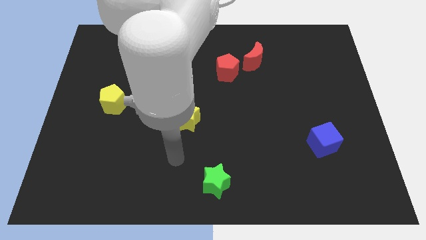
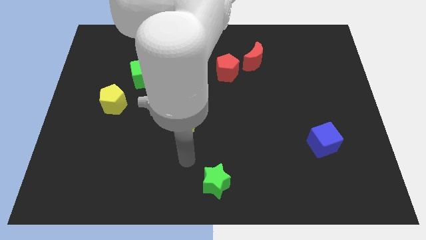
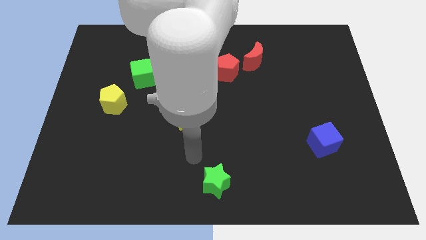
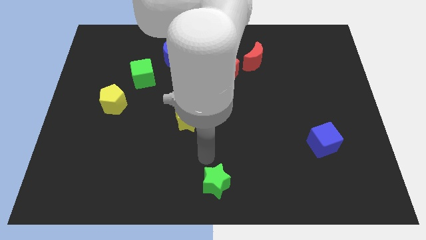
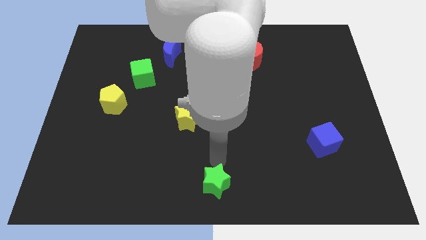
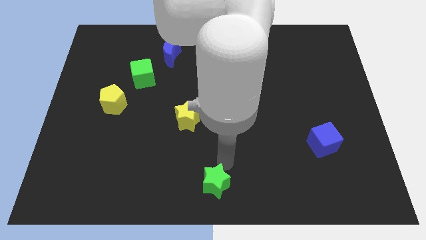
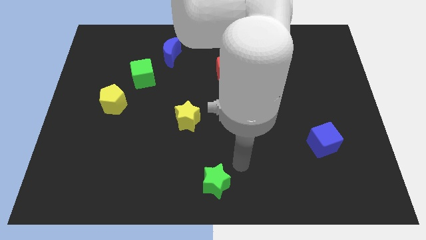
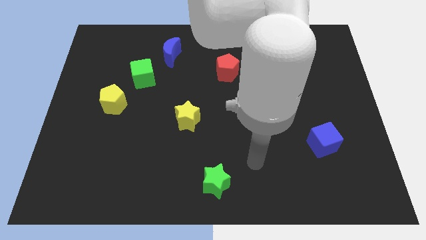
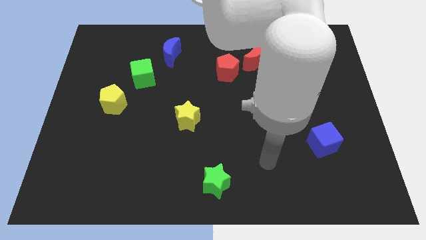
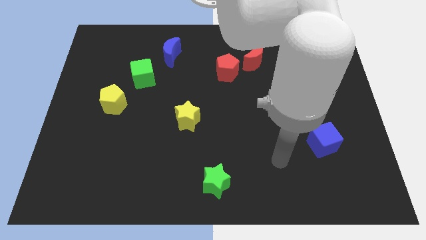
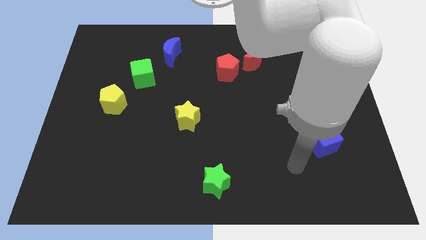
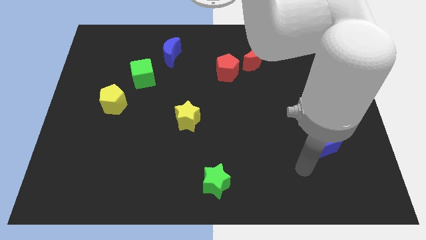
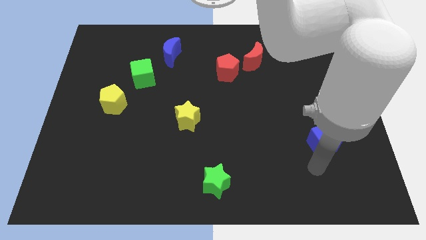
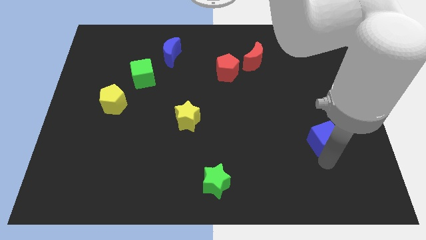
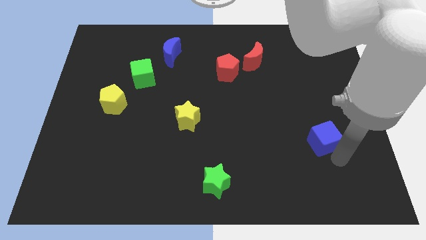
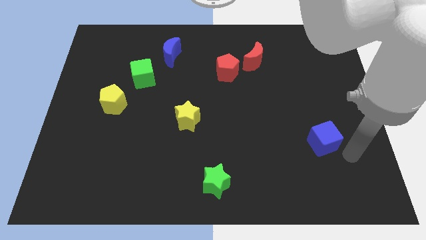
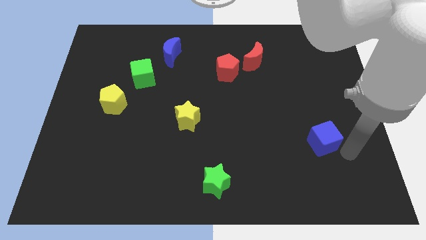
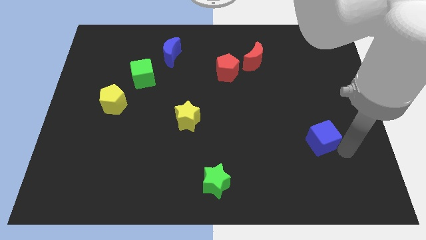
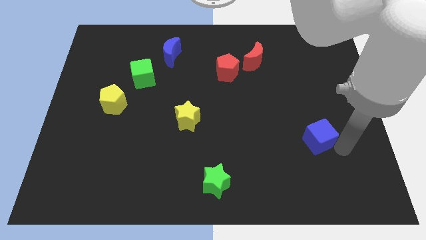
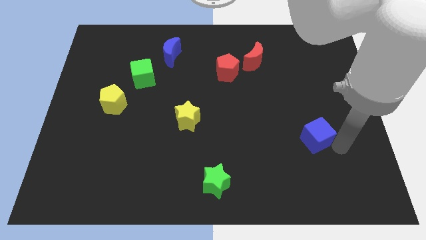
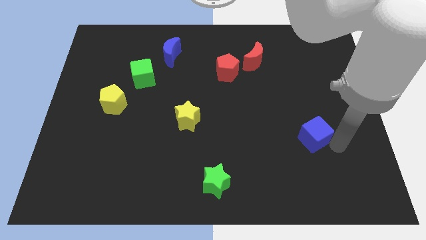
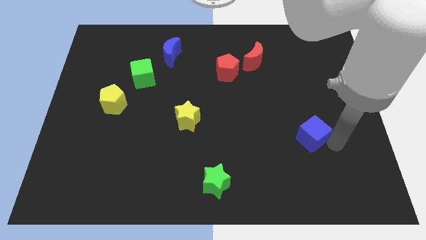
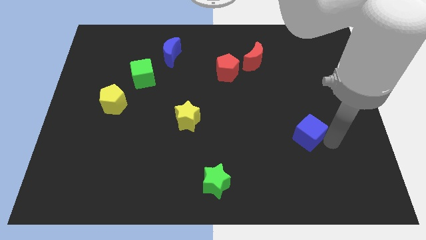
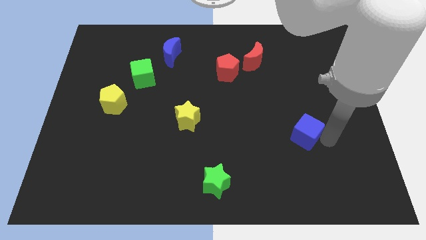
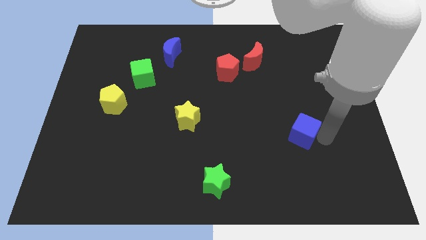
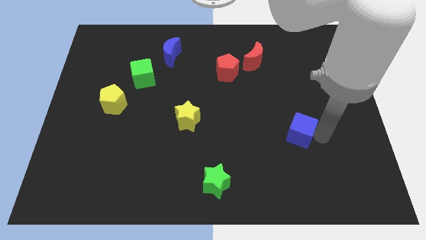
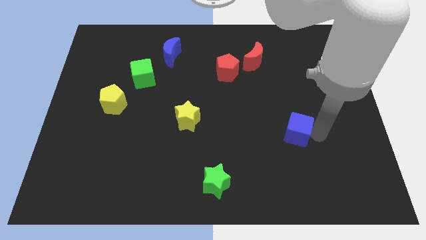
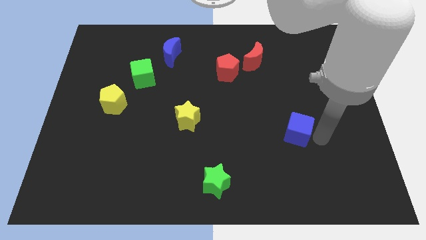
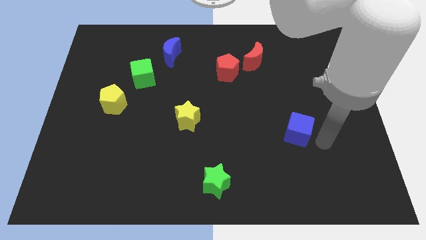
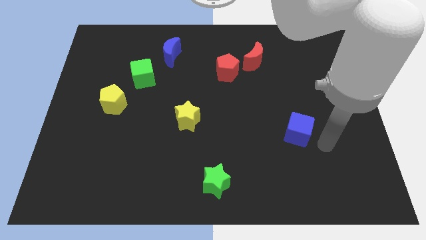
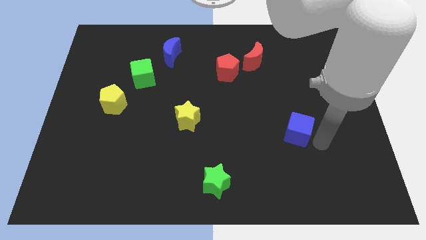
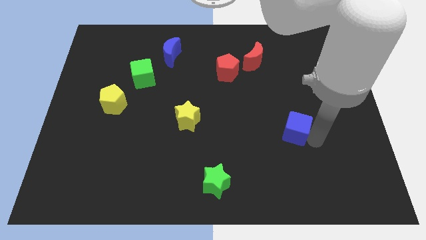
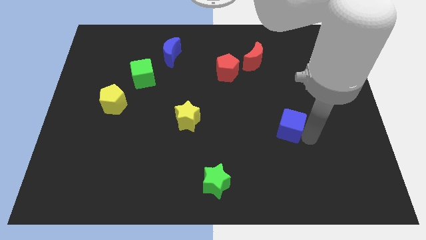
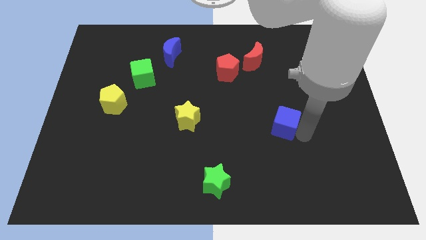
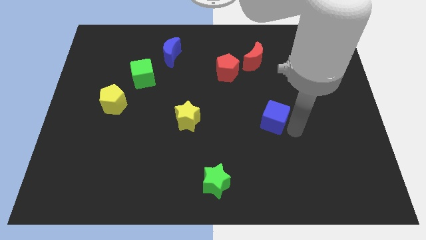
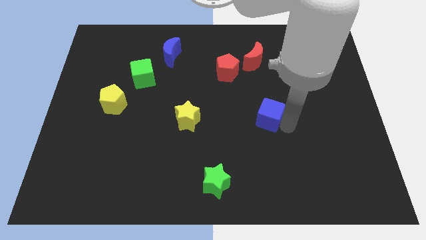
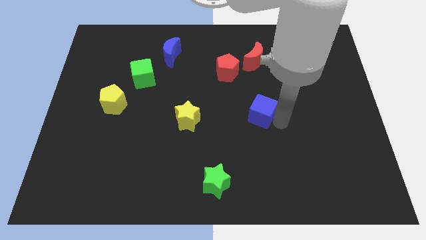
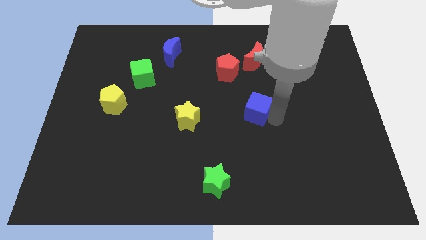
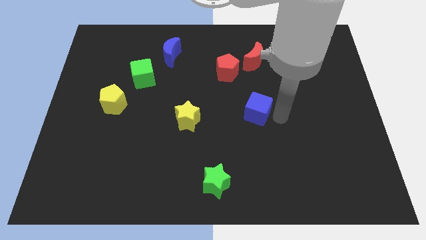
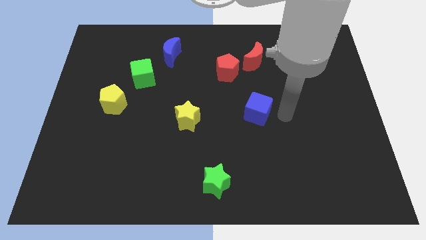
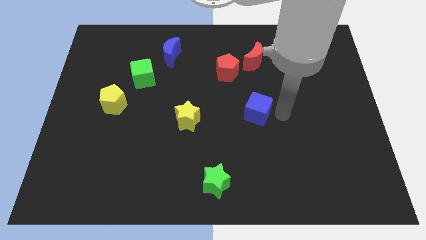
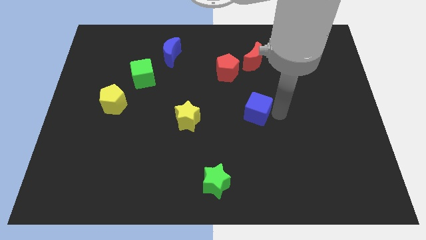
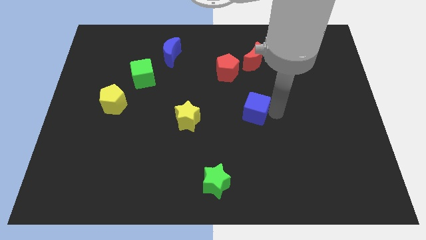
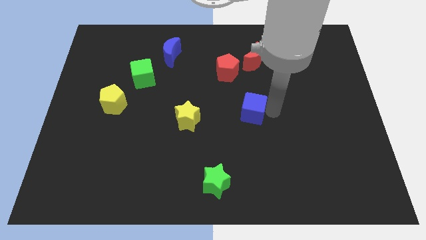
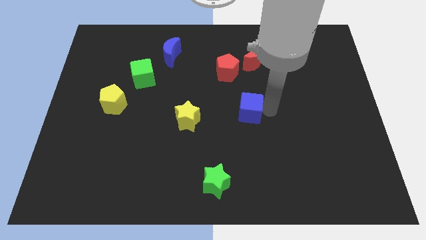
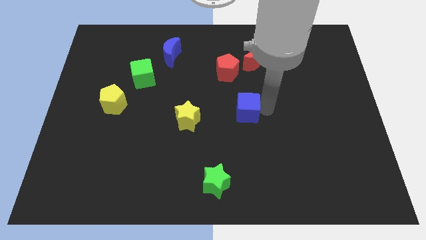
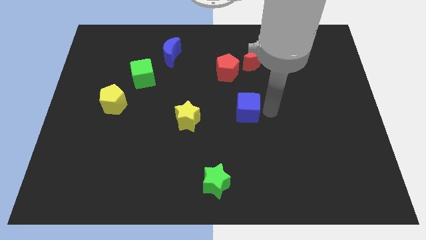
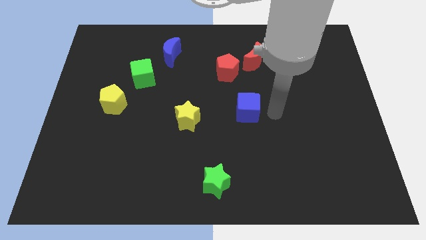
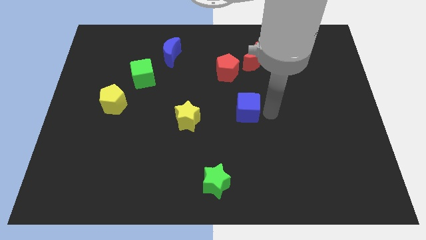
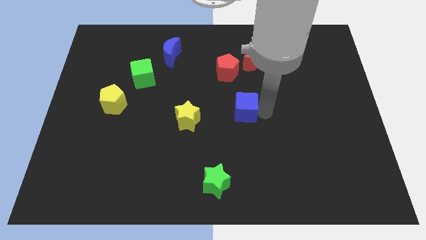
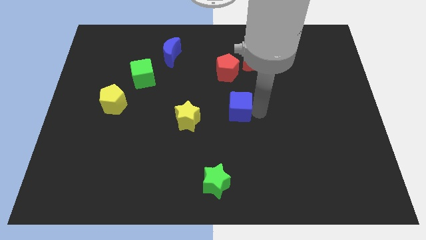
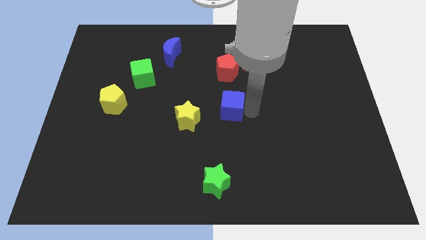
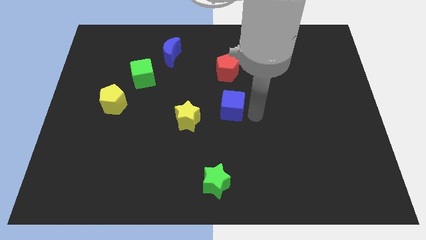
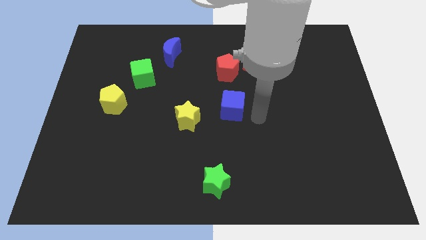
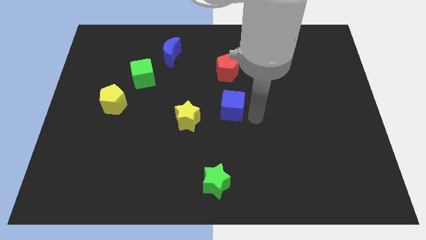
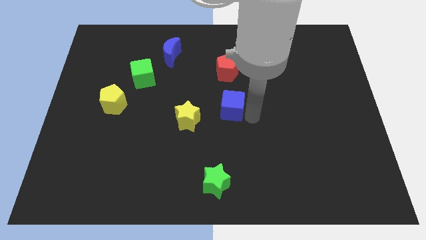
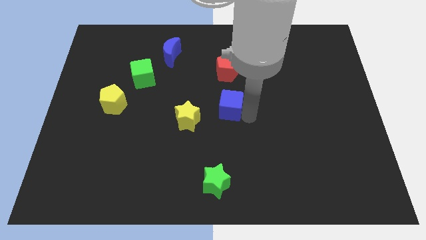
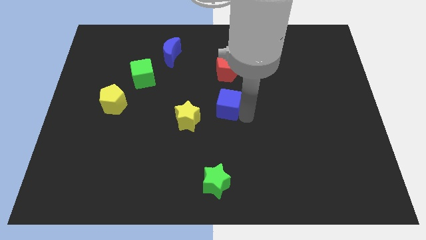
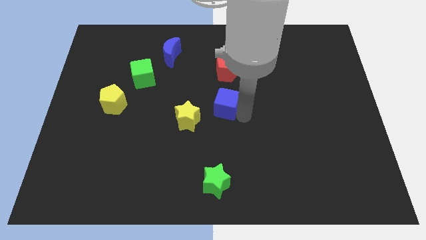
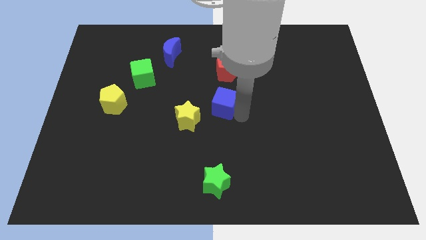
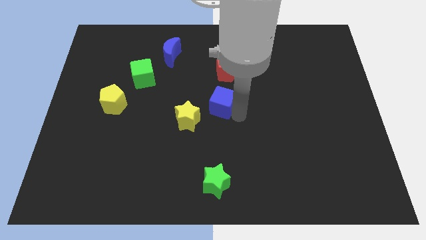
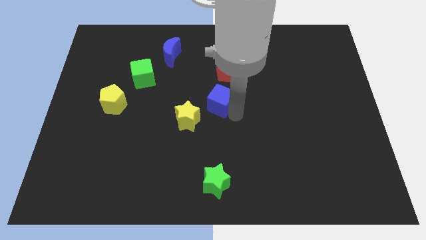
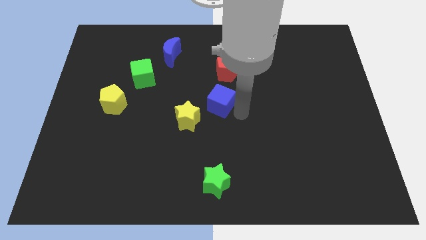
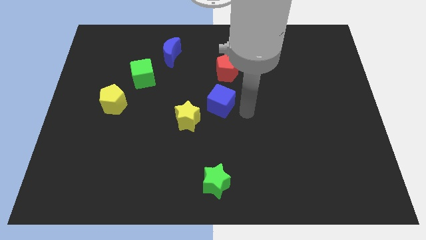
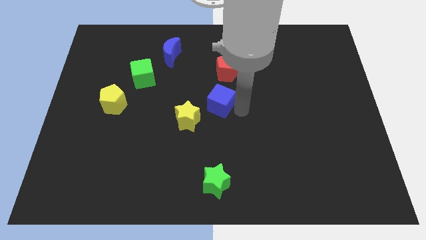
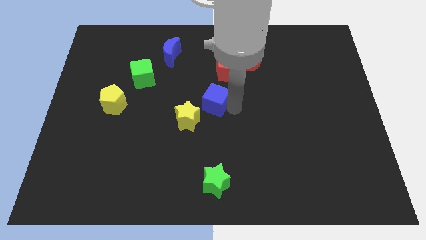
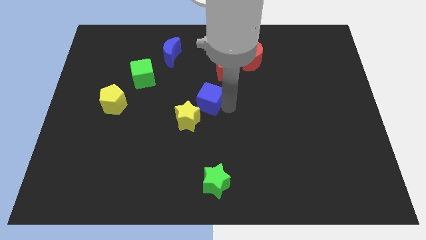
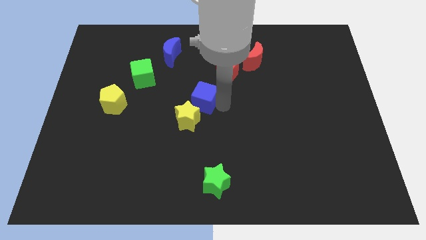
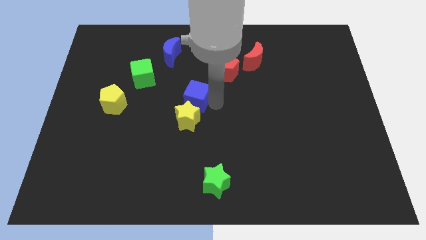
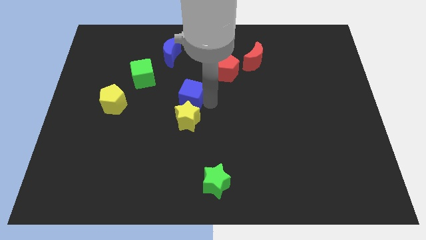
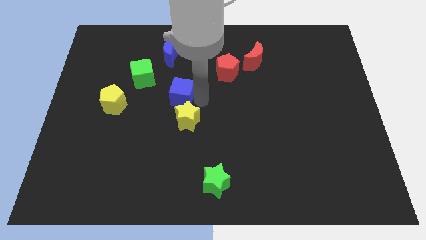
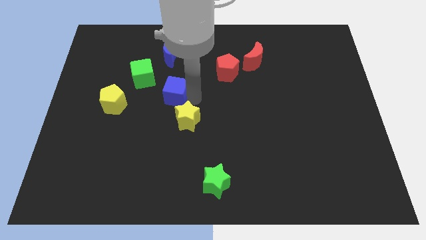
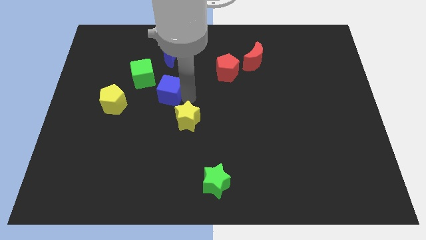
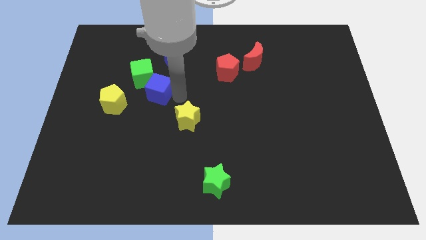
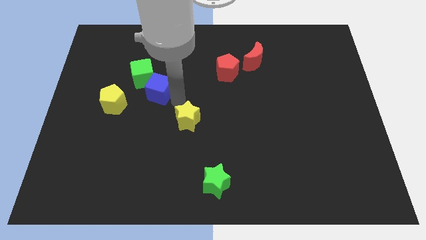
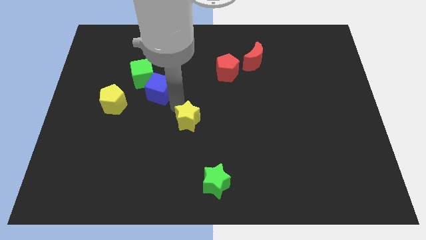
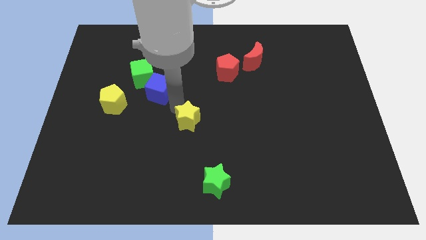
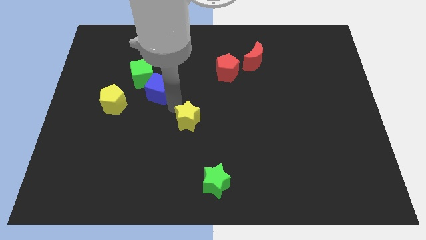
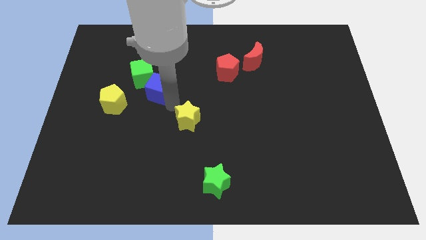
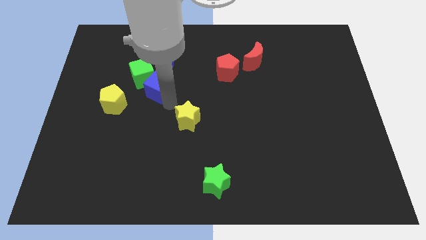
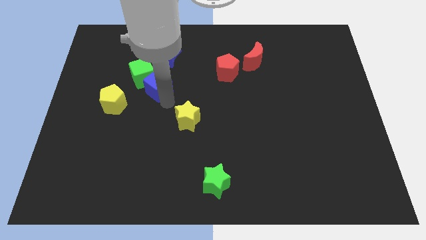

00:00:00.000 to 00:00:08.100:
push the blue cube towards the green cube
